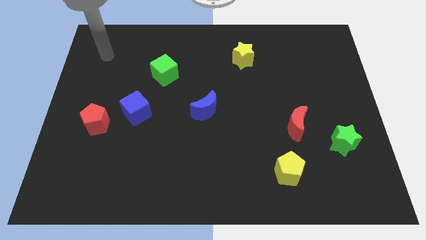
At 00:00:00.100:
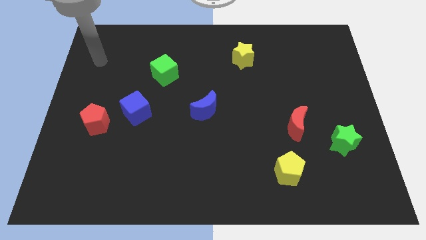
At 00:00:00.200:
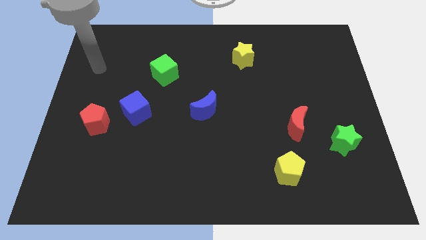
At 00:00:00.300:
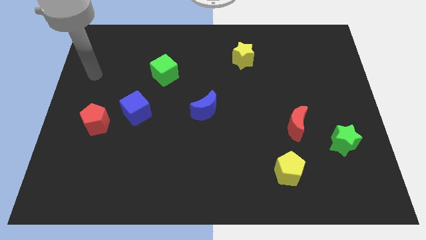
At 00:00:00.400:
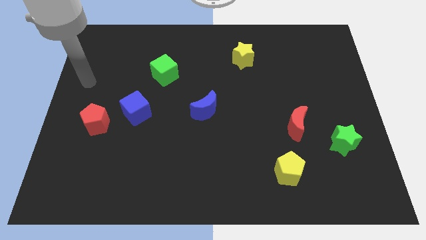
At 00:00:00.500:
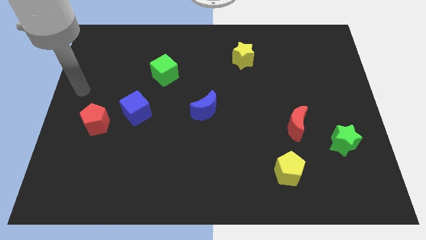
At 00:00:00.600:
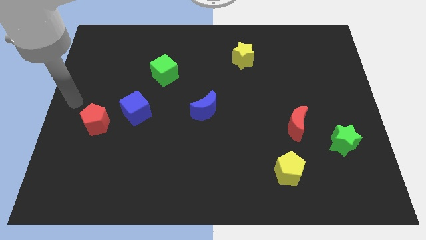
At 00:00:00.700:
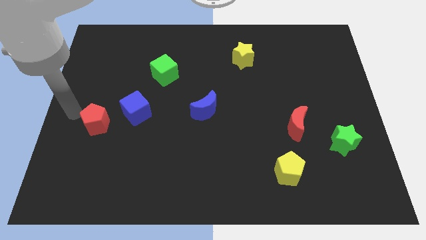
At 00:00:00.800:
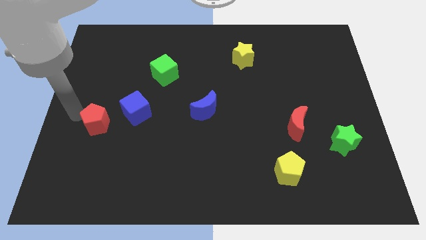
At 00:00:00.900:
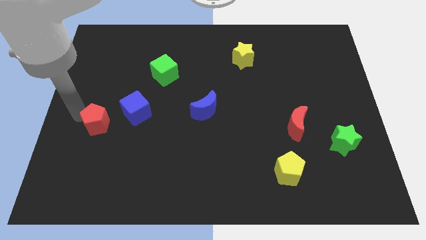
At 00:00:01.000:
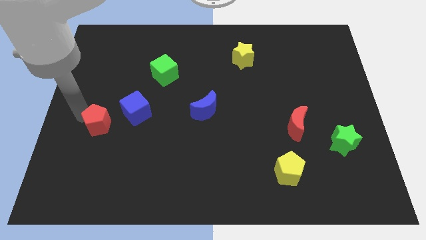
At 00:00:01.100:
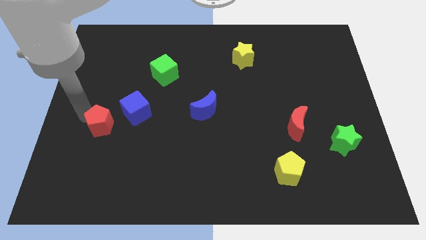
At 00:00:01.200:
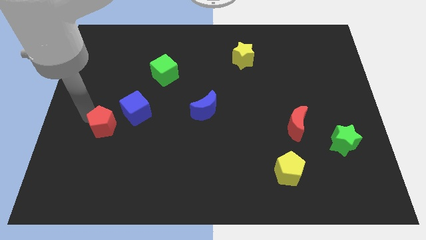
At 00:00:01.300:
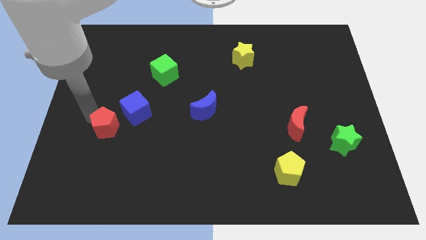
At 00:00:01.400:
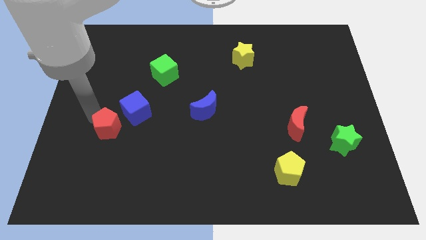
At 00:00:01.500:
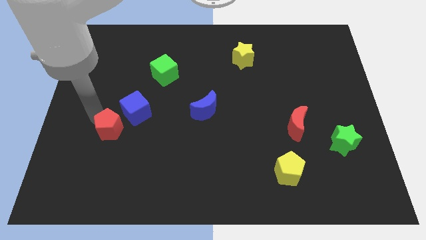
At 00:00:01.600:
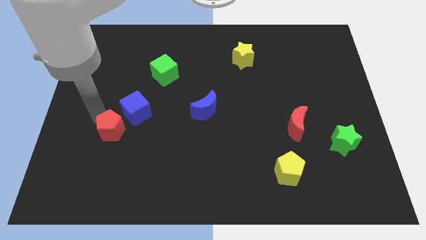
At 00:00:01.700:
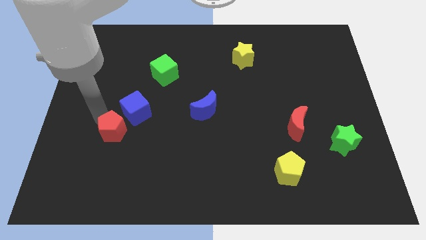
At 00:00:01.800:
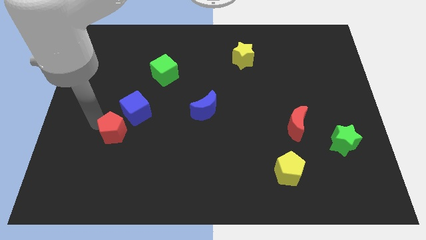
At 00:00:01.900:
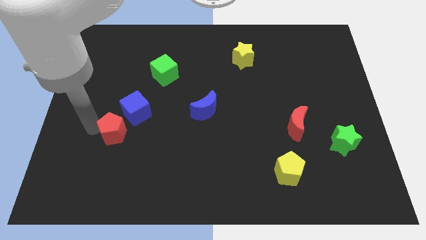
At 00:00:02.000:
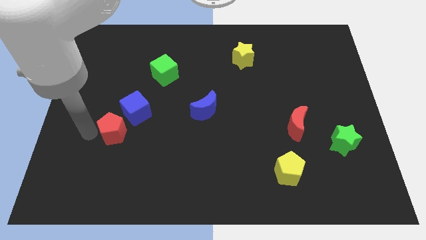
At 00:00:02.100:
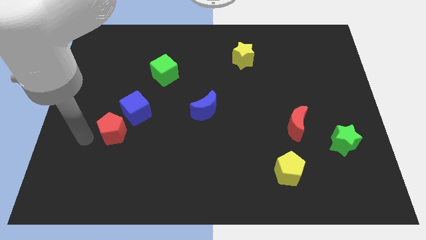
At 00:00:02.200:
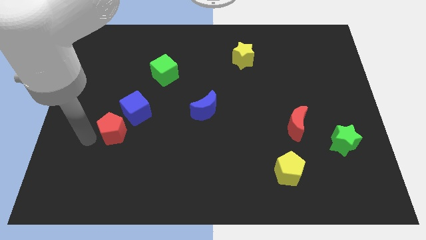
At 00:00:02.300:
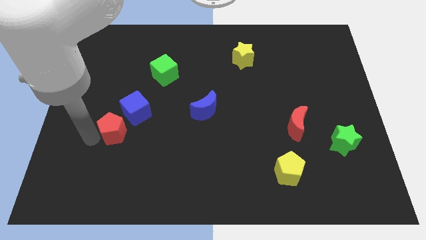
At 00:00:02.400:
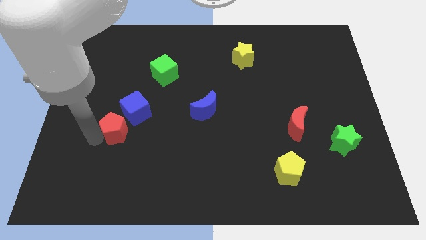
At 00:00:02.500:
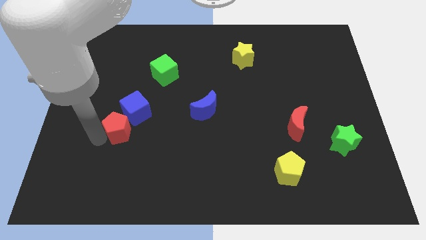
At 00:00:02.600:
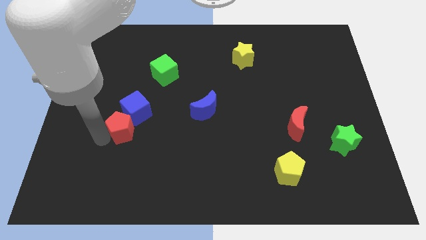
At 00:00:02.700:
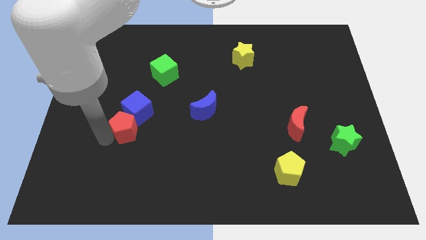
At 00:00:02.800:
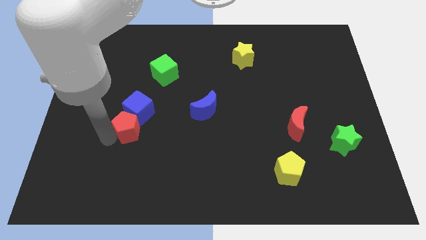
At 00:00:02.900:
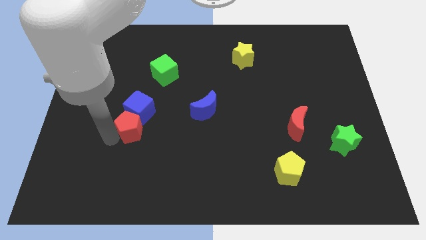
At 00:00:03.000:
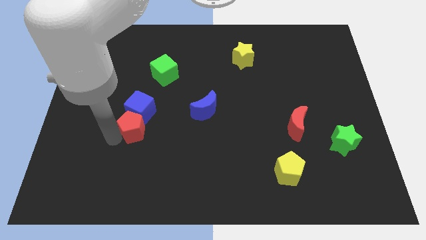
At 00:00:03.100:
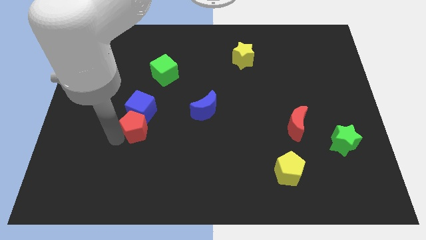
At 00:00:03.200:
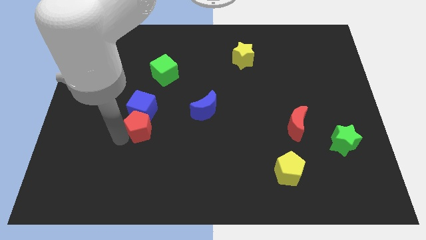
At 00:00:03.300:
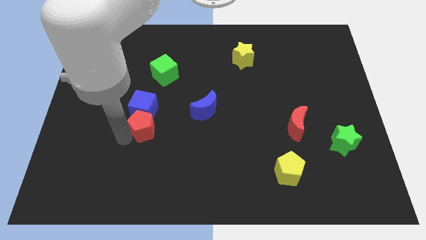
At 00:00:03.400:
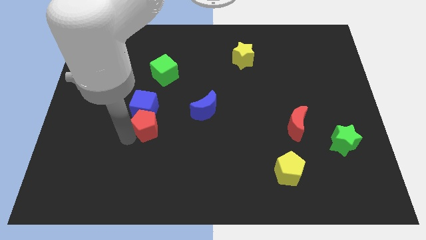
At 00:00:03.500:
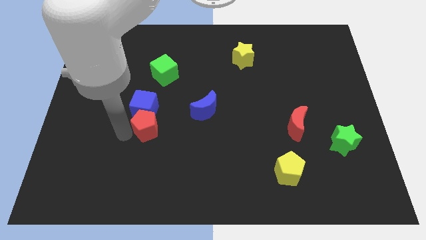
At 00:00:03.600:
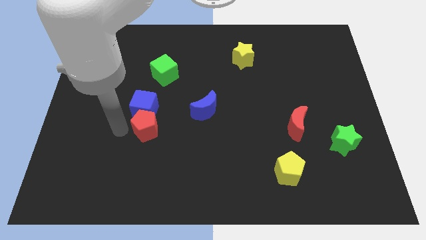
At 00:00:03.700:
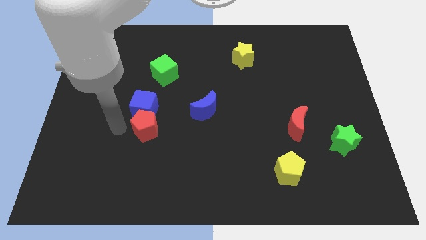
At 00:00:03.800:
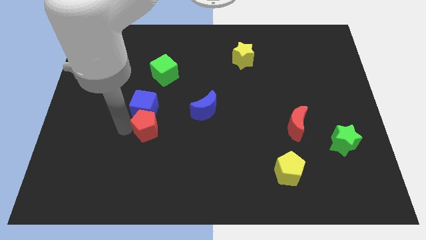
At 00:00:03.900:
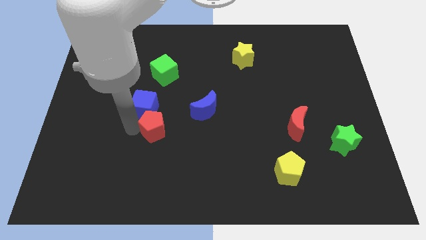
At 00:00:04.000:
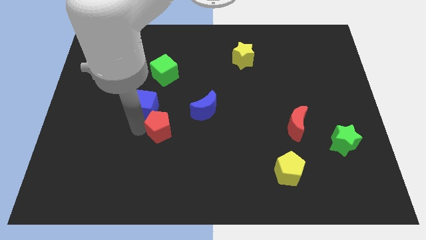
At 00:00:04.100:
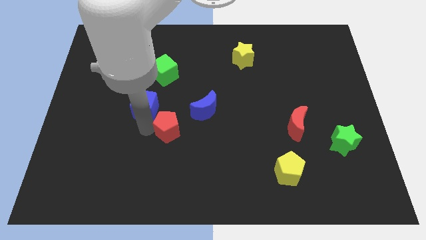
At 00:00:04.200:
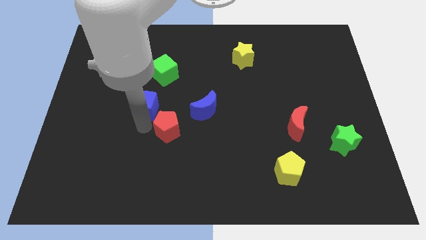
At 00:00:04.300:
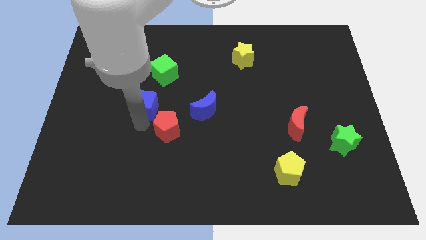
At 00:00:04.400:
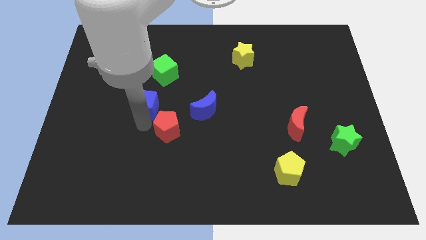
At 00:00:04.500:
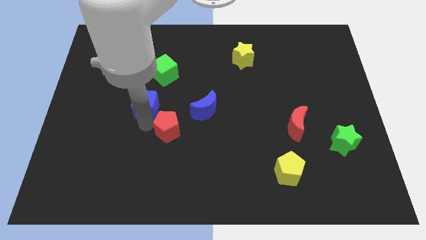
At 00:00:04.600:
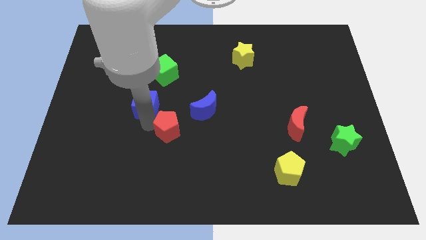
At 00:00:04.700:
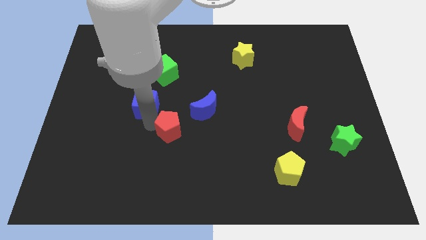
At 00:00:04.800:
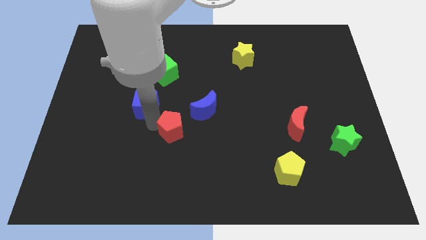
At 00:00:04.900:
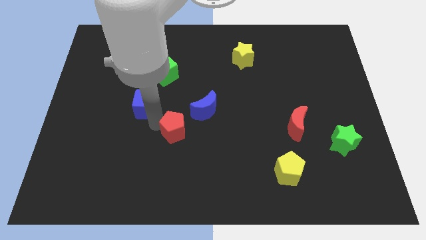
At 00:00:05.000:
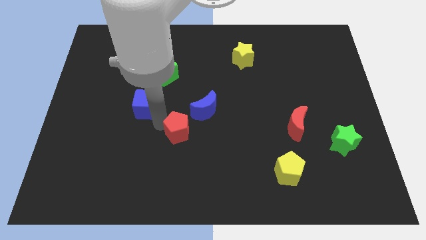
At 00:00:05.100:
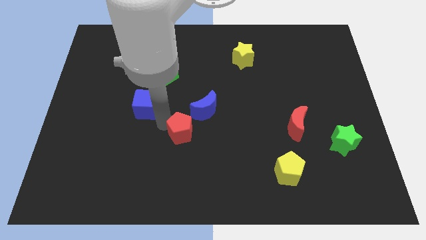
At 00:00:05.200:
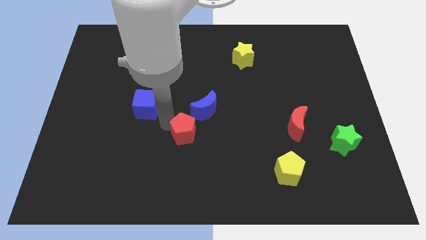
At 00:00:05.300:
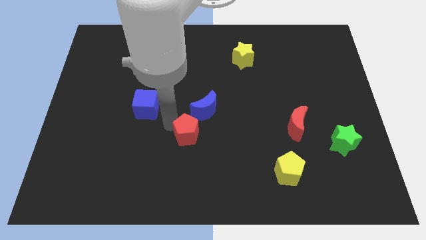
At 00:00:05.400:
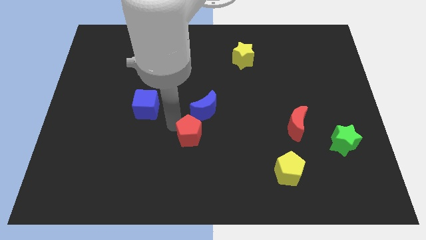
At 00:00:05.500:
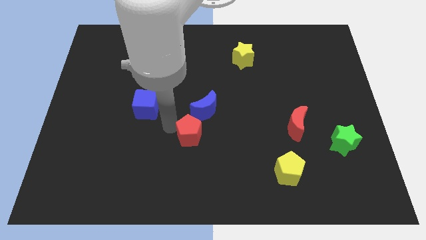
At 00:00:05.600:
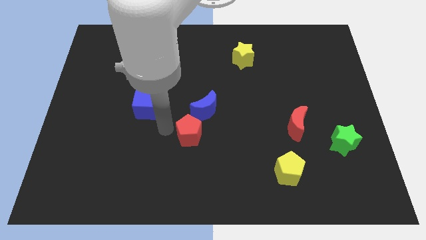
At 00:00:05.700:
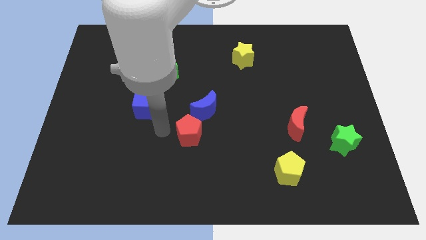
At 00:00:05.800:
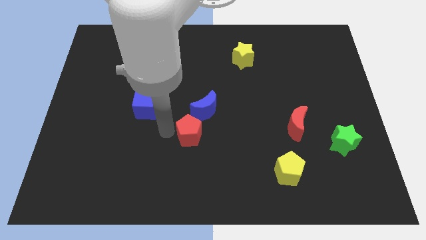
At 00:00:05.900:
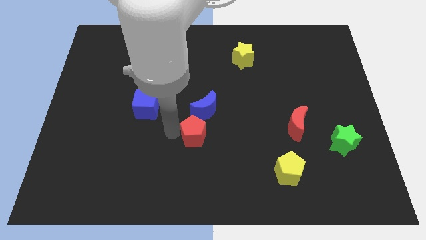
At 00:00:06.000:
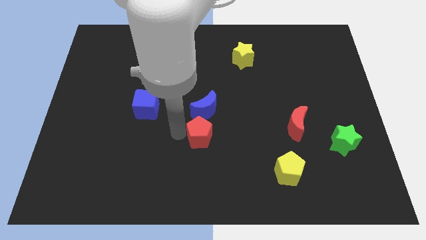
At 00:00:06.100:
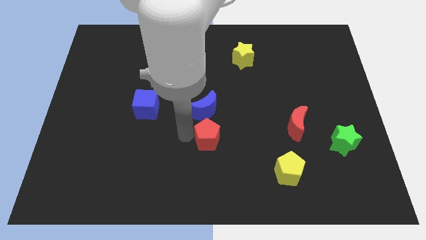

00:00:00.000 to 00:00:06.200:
push the red pentagon to the bottom right of the blue moon
